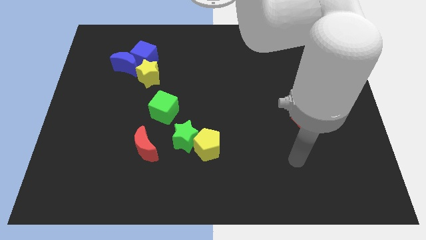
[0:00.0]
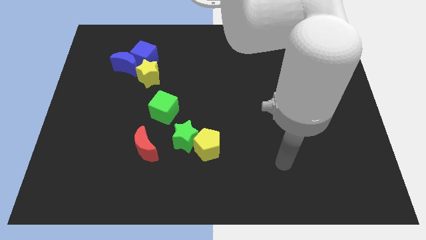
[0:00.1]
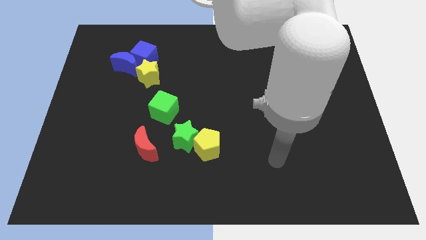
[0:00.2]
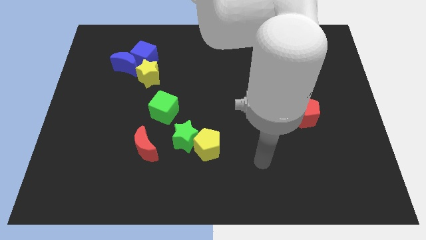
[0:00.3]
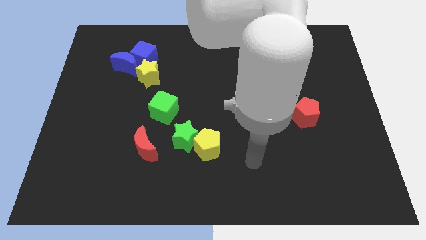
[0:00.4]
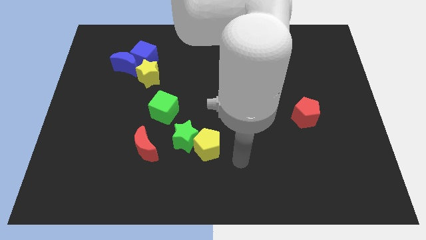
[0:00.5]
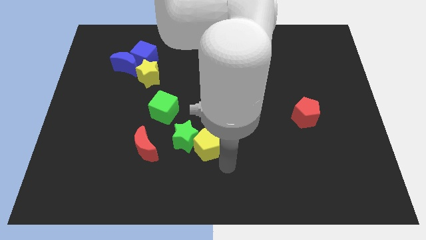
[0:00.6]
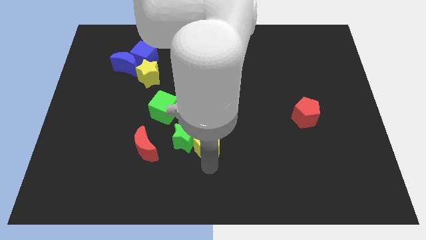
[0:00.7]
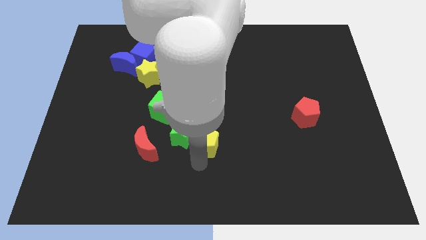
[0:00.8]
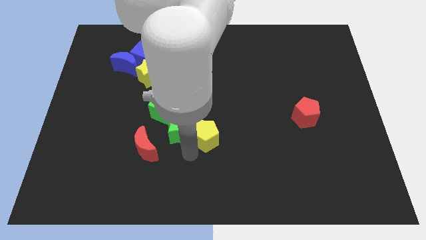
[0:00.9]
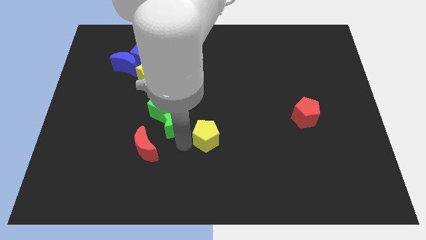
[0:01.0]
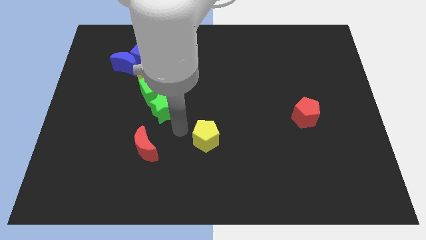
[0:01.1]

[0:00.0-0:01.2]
separate the yellow pentagon from the green star

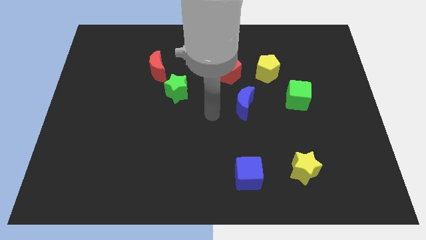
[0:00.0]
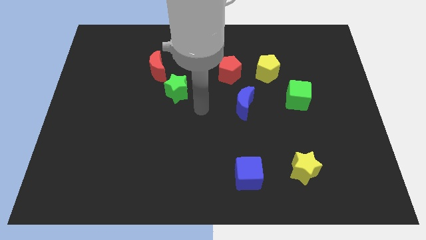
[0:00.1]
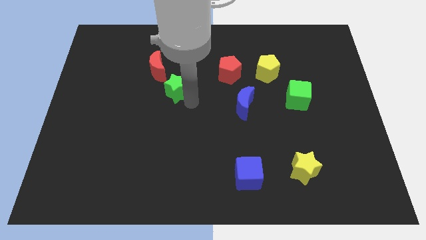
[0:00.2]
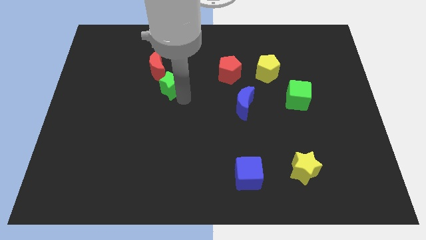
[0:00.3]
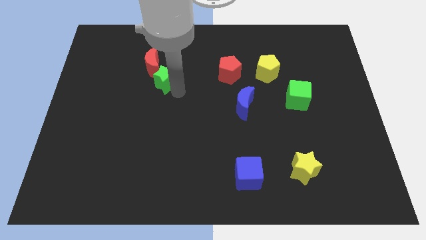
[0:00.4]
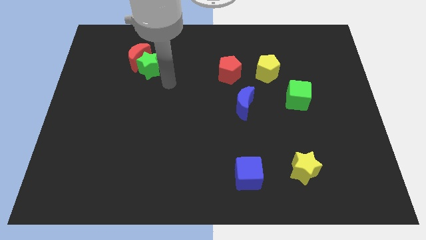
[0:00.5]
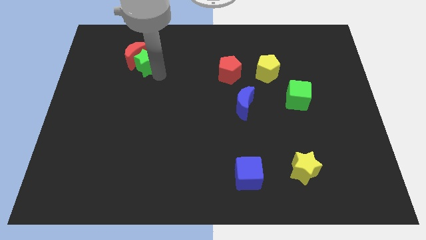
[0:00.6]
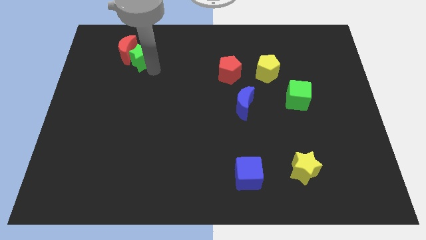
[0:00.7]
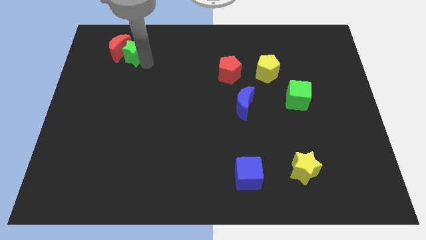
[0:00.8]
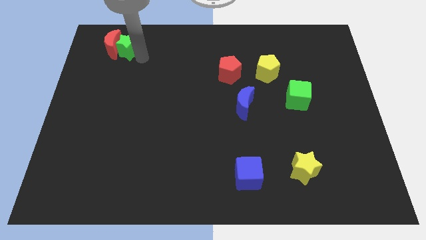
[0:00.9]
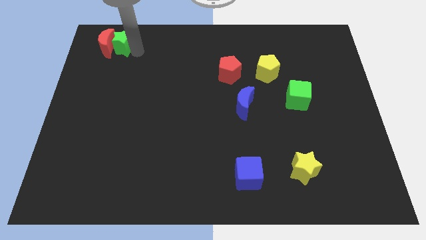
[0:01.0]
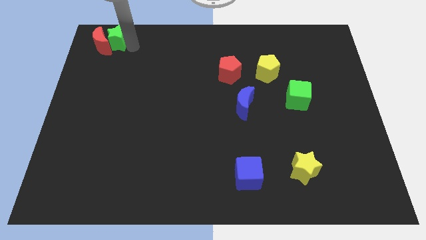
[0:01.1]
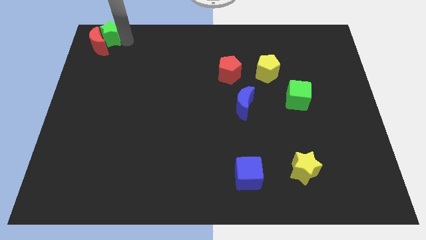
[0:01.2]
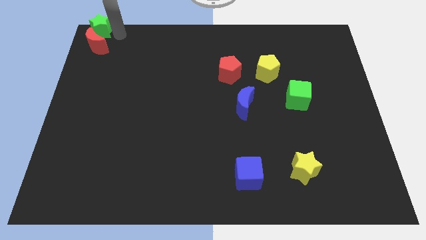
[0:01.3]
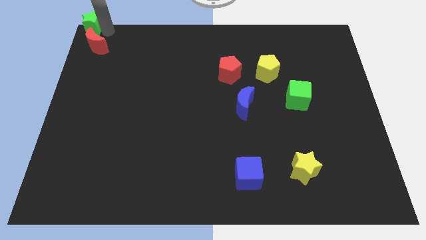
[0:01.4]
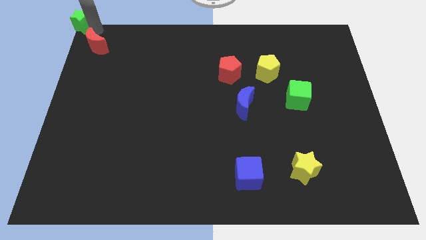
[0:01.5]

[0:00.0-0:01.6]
separate the red moon from the green star

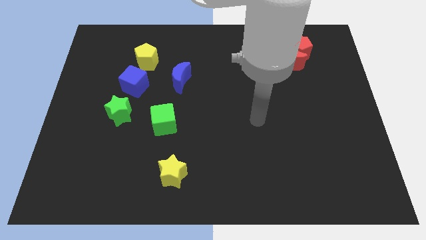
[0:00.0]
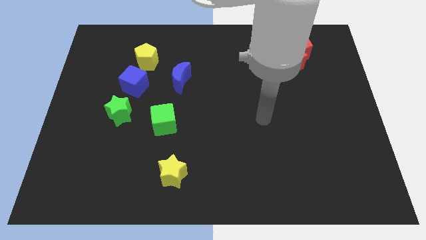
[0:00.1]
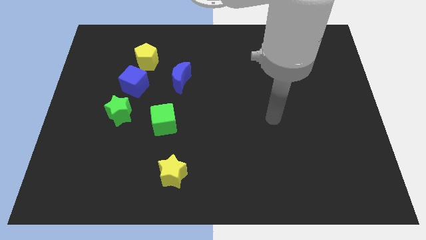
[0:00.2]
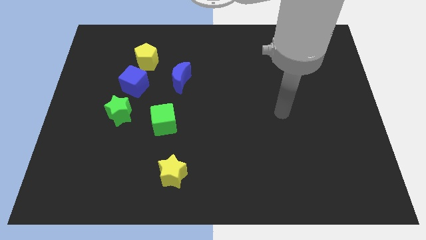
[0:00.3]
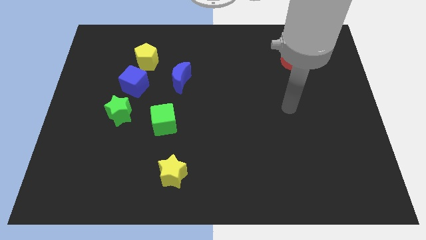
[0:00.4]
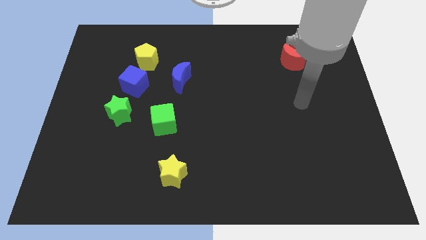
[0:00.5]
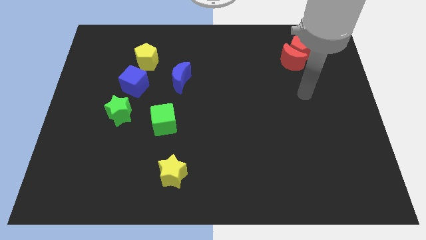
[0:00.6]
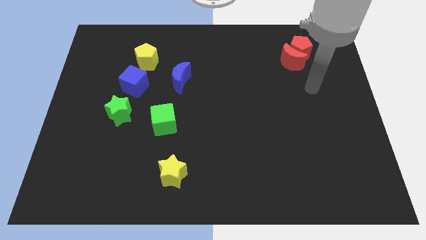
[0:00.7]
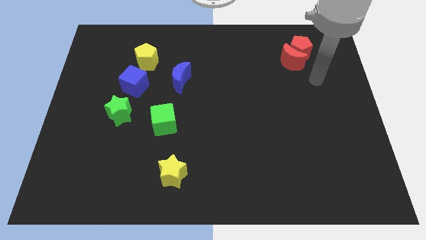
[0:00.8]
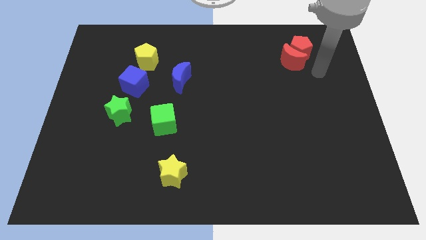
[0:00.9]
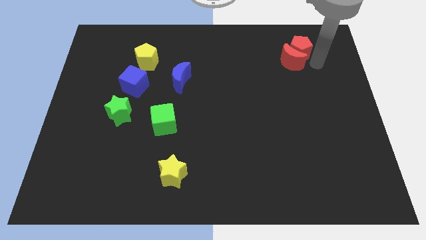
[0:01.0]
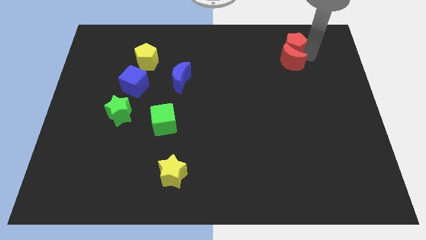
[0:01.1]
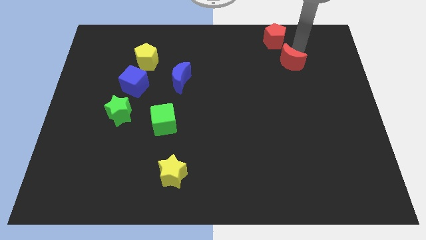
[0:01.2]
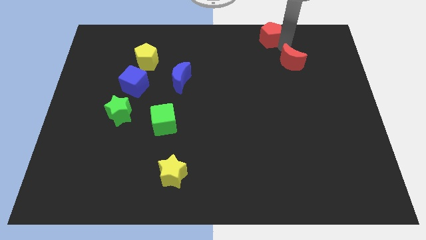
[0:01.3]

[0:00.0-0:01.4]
separate the red moon from the red pentagon

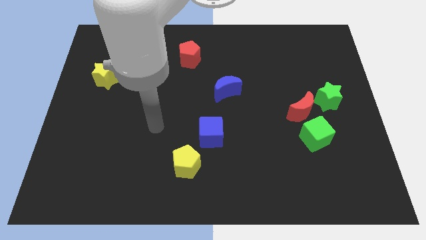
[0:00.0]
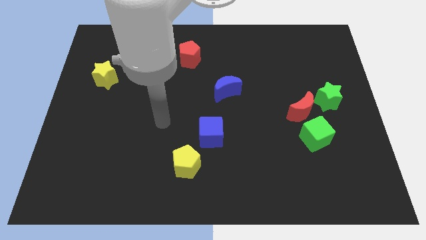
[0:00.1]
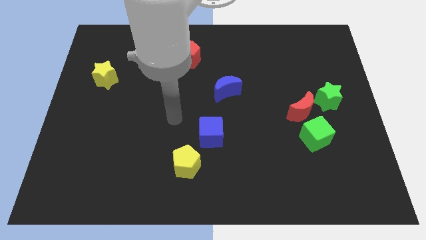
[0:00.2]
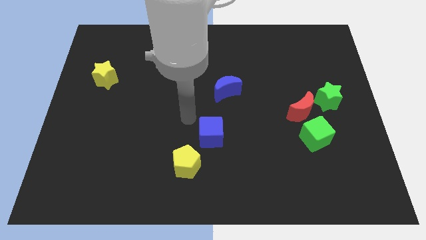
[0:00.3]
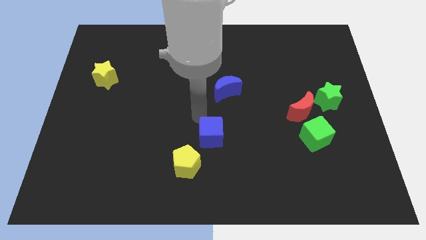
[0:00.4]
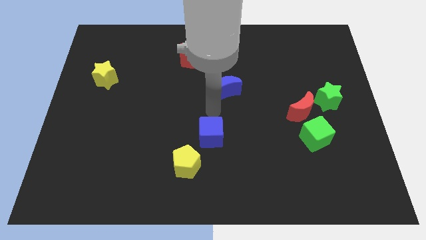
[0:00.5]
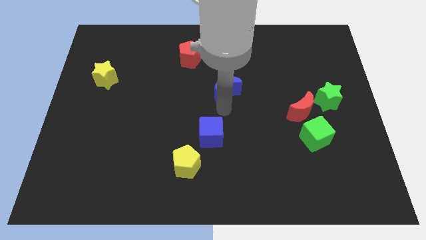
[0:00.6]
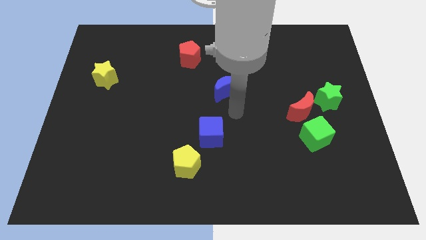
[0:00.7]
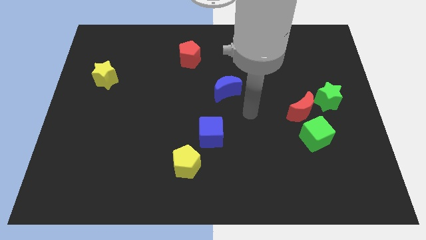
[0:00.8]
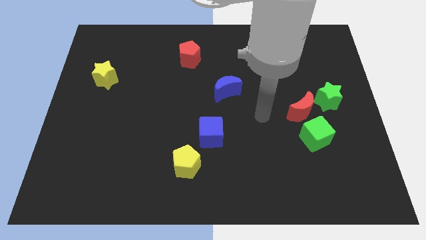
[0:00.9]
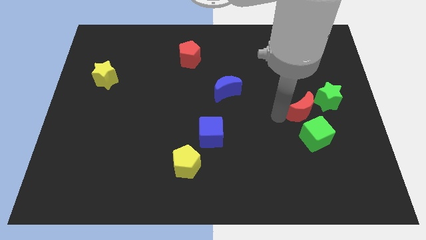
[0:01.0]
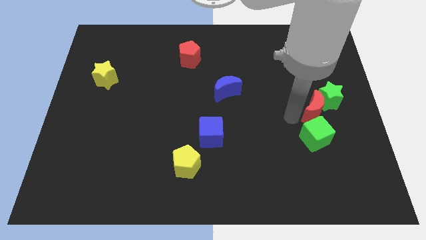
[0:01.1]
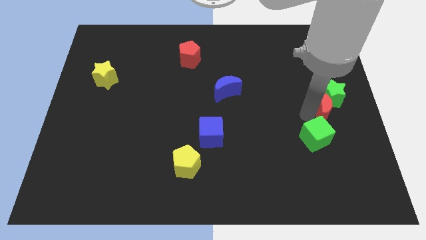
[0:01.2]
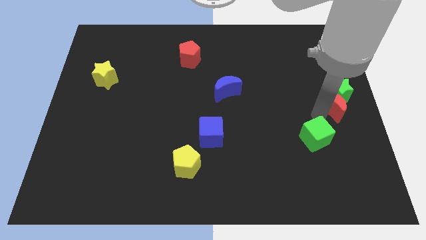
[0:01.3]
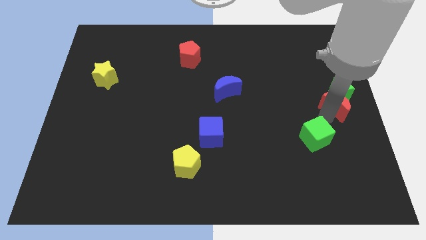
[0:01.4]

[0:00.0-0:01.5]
pull the green cube apart from the red moon

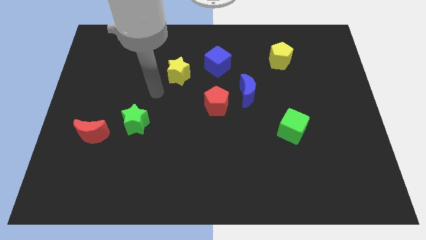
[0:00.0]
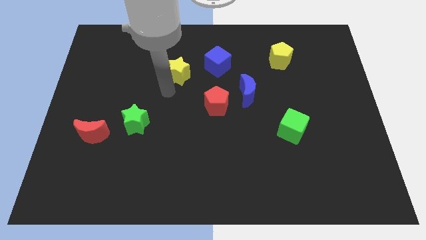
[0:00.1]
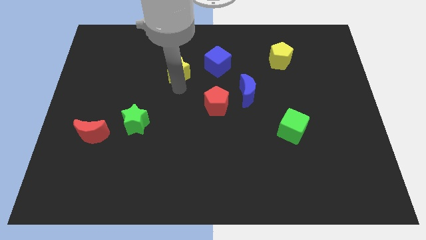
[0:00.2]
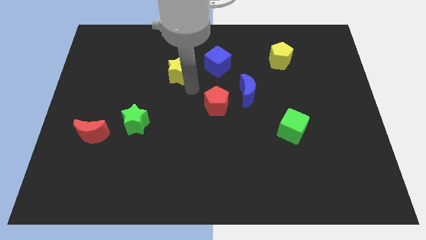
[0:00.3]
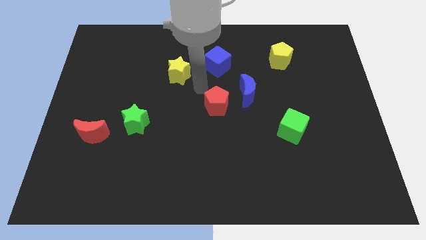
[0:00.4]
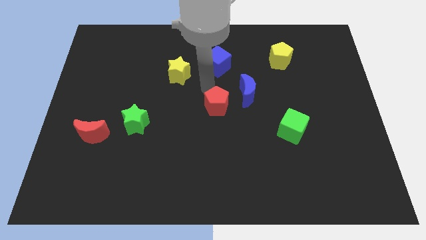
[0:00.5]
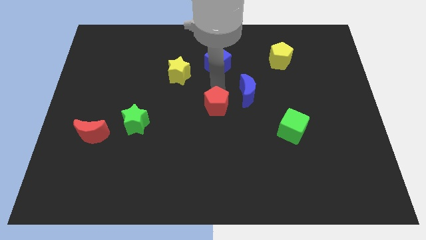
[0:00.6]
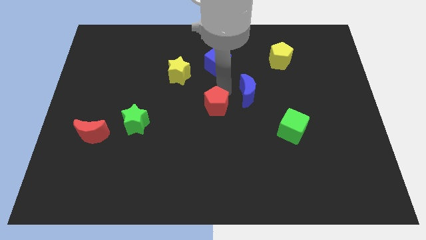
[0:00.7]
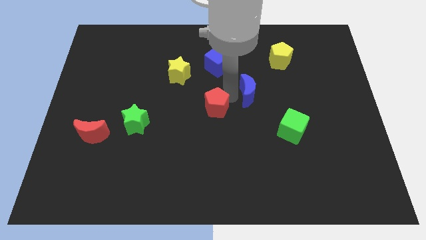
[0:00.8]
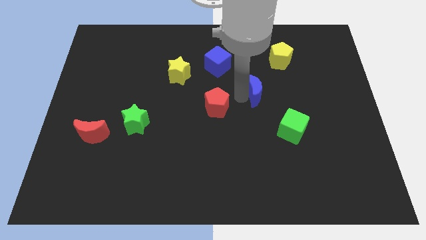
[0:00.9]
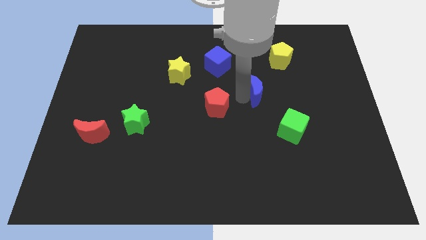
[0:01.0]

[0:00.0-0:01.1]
pull the red pentagon apart from the blue moon

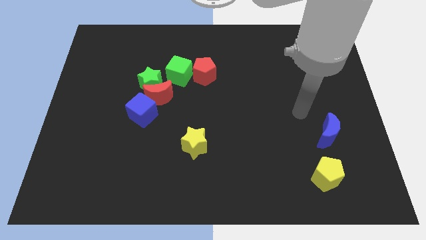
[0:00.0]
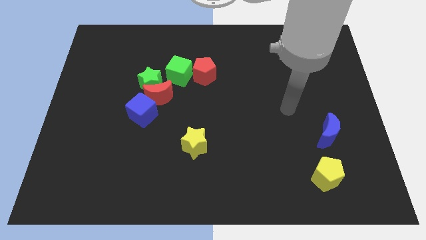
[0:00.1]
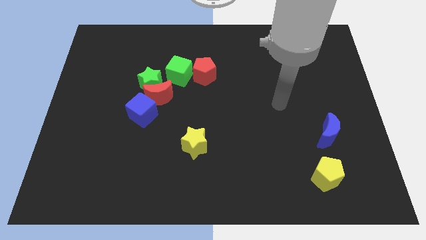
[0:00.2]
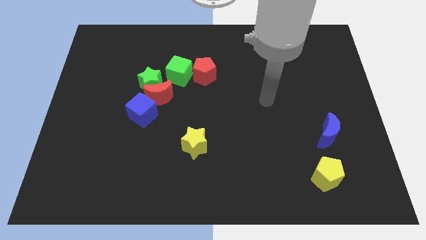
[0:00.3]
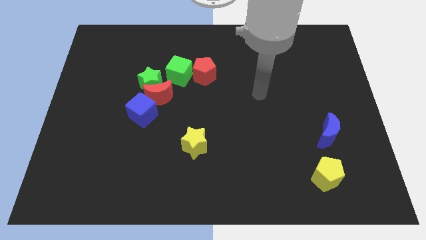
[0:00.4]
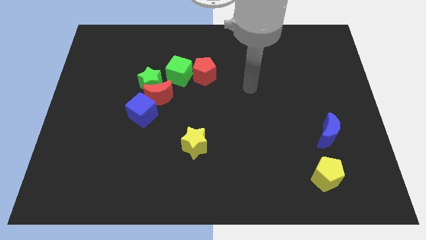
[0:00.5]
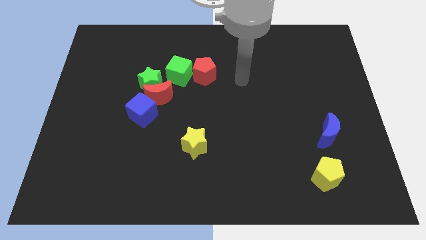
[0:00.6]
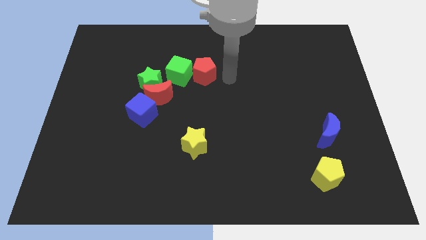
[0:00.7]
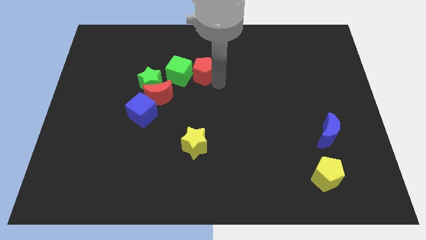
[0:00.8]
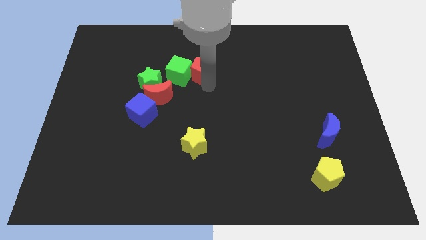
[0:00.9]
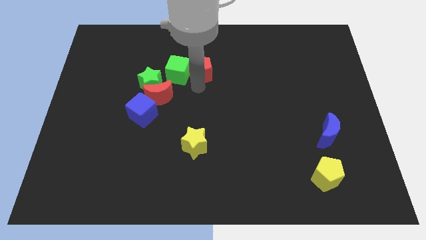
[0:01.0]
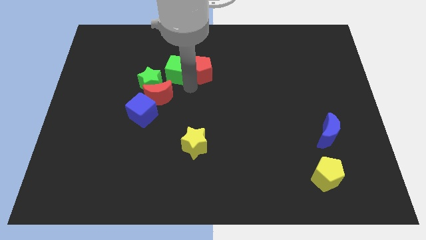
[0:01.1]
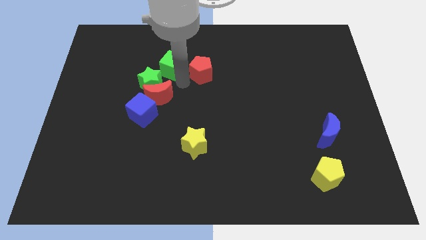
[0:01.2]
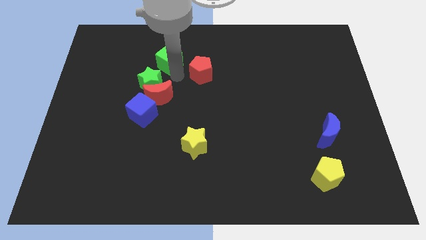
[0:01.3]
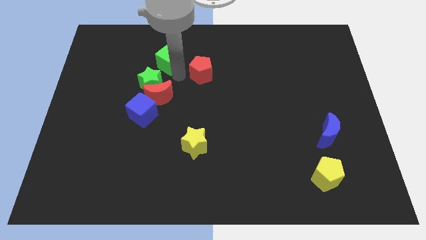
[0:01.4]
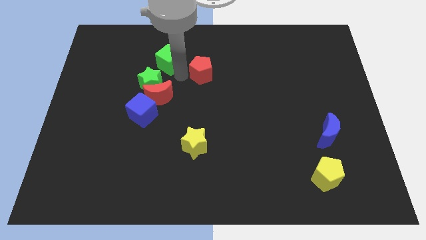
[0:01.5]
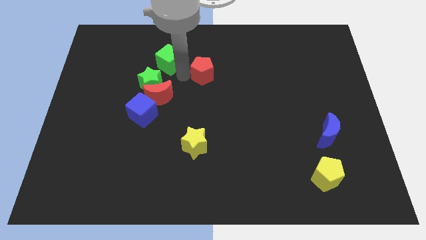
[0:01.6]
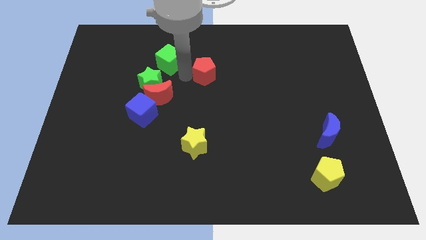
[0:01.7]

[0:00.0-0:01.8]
separate the red pentagon from the green cube

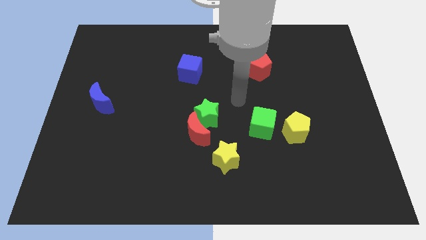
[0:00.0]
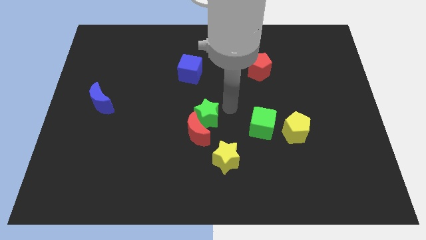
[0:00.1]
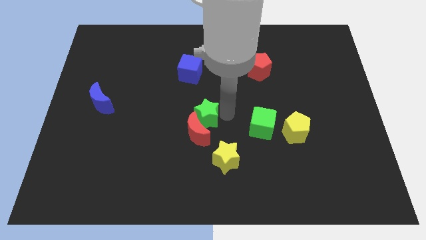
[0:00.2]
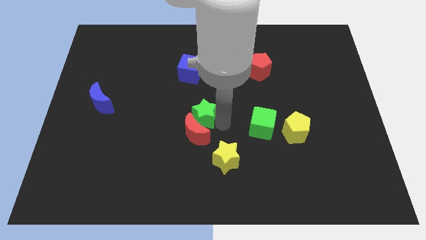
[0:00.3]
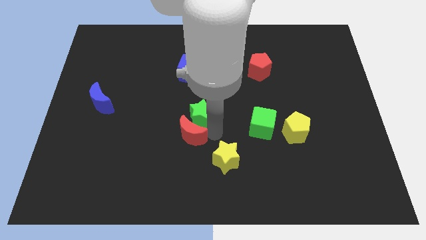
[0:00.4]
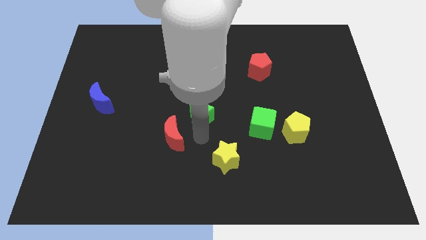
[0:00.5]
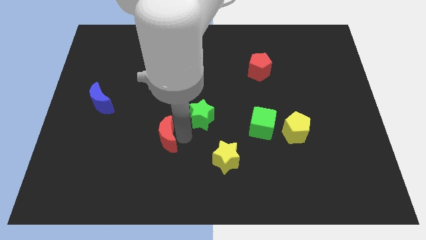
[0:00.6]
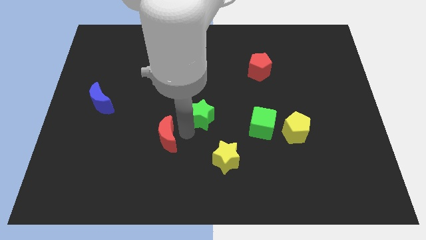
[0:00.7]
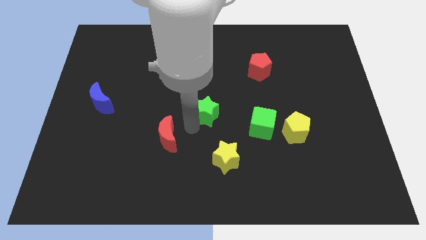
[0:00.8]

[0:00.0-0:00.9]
pull the green star apart from the red moon
